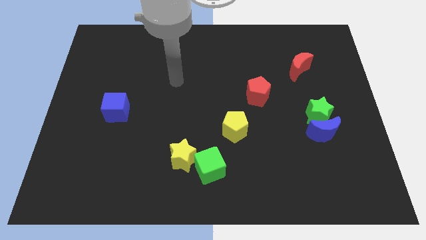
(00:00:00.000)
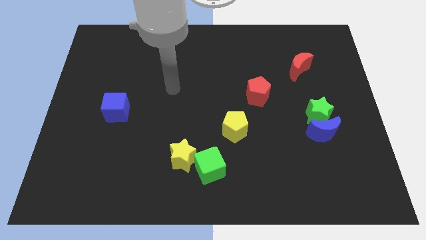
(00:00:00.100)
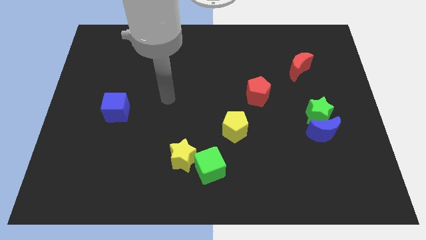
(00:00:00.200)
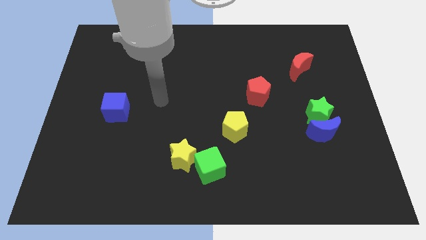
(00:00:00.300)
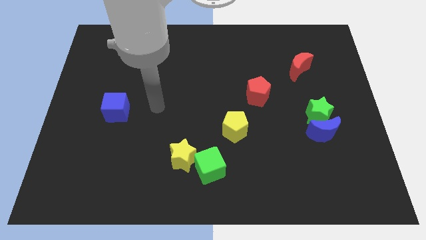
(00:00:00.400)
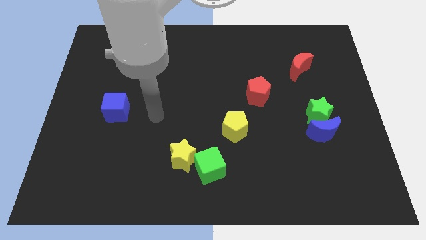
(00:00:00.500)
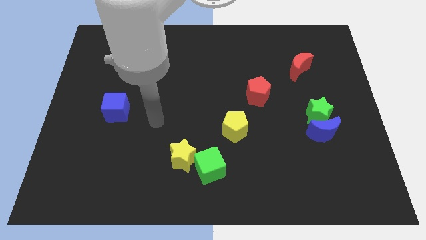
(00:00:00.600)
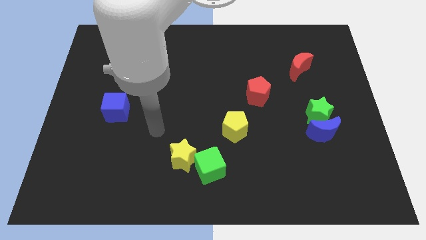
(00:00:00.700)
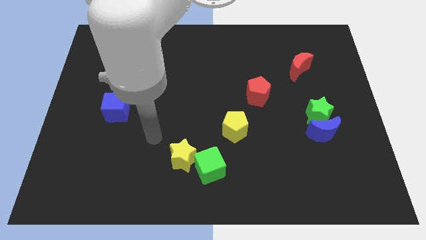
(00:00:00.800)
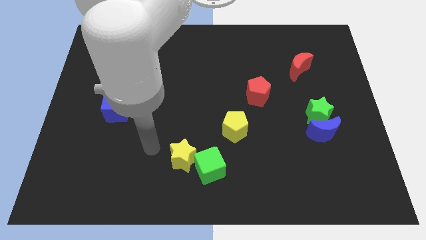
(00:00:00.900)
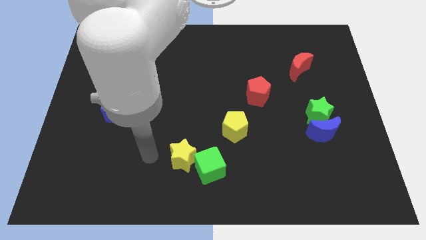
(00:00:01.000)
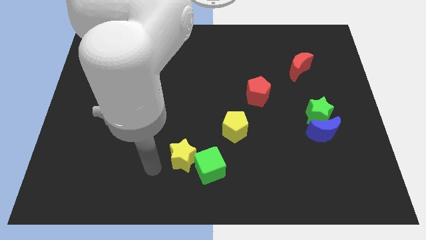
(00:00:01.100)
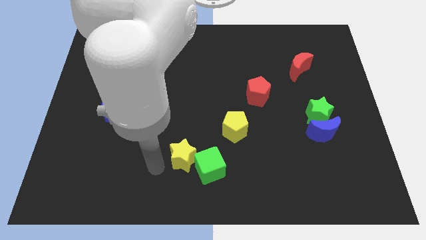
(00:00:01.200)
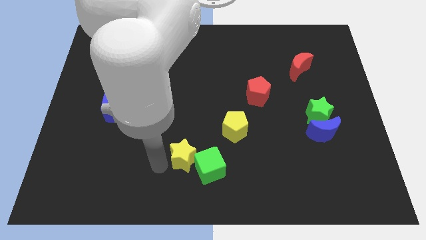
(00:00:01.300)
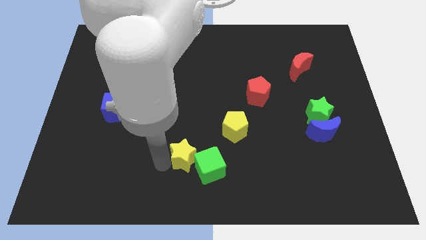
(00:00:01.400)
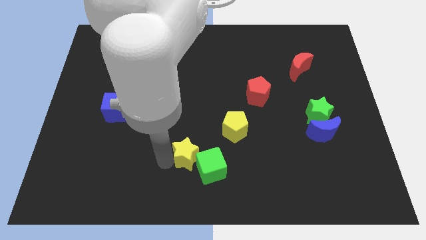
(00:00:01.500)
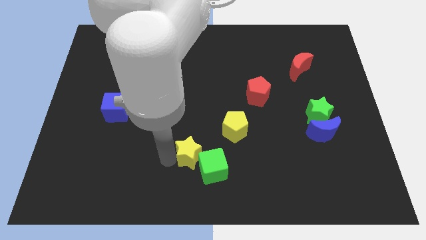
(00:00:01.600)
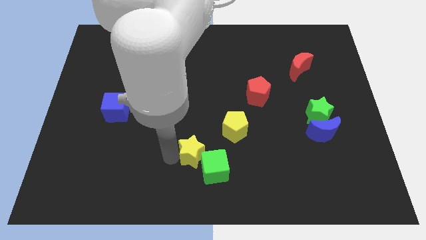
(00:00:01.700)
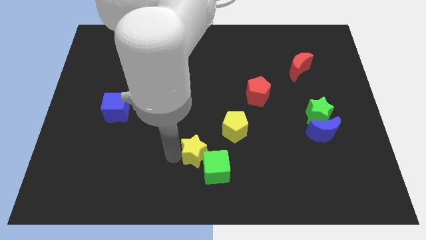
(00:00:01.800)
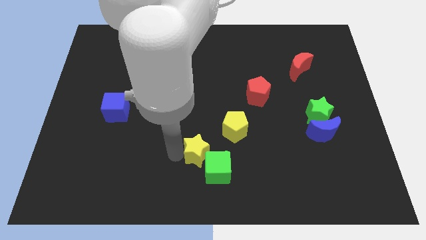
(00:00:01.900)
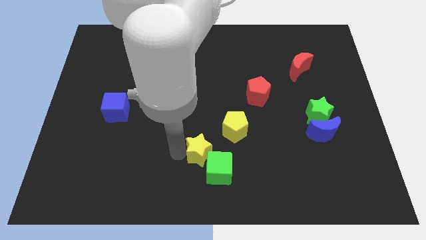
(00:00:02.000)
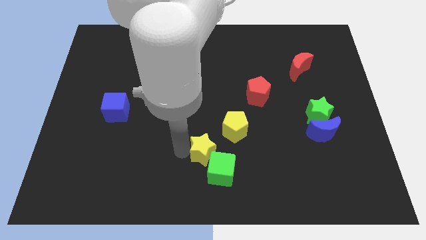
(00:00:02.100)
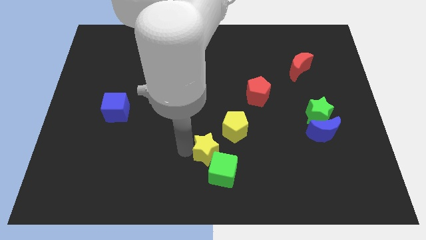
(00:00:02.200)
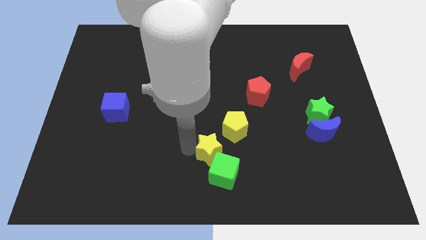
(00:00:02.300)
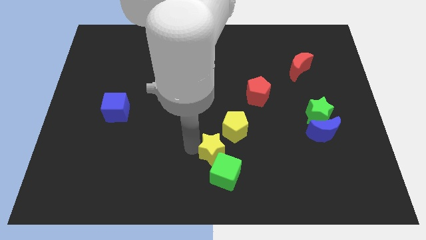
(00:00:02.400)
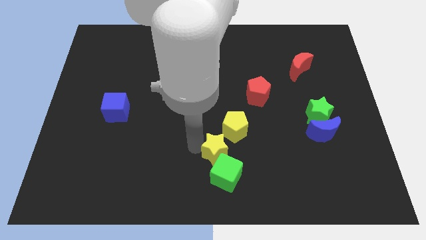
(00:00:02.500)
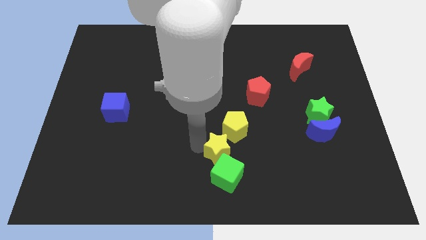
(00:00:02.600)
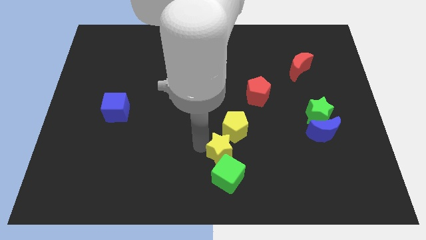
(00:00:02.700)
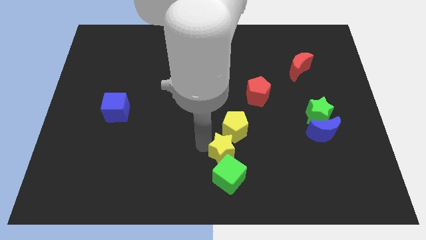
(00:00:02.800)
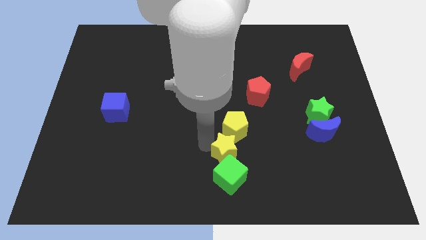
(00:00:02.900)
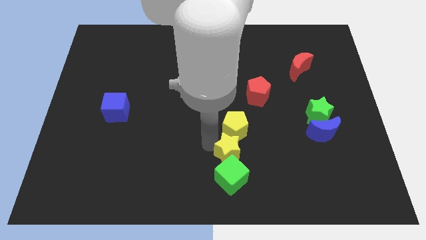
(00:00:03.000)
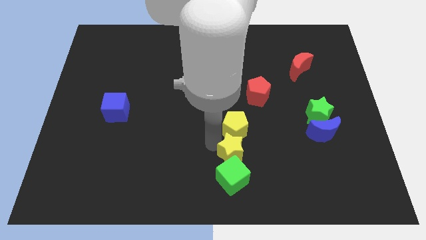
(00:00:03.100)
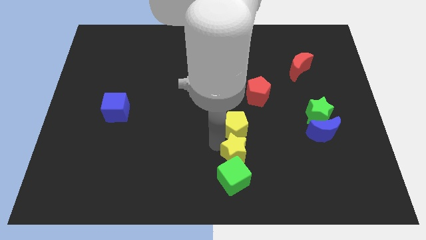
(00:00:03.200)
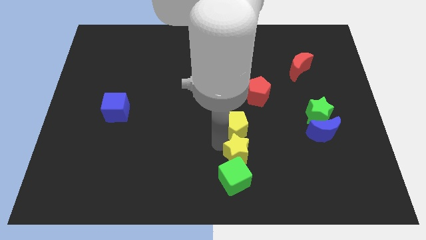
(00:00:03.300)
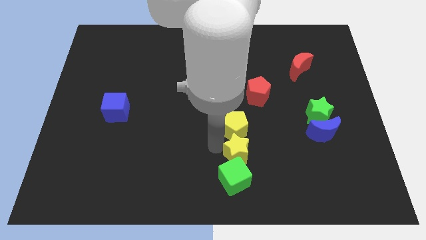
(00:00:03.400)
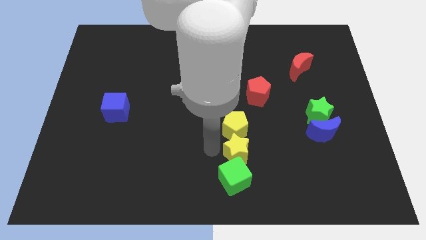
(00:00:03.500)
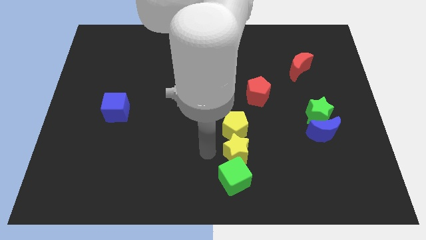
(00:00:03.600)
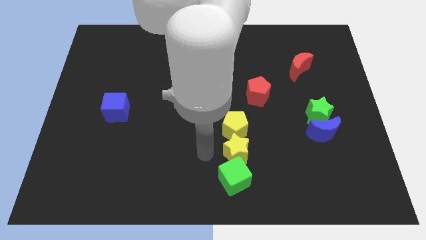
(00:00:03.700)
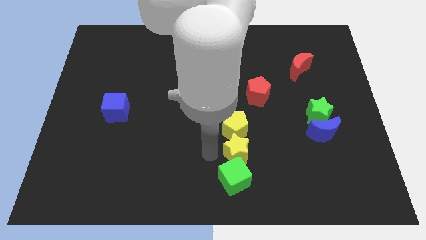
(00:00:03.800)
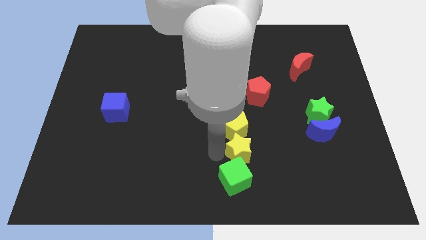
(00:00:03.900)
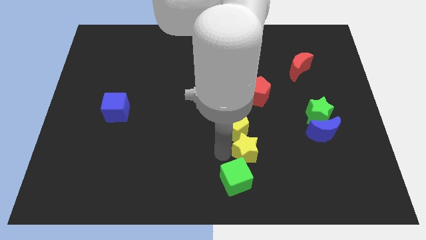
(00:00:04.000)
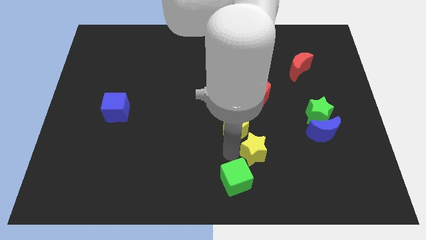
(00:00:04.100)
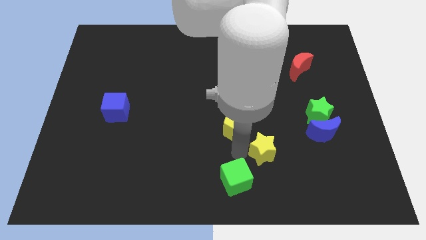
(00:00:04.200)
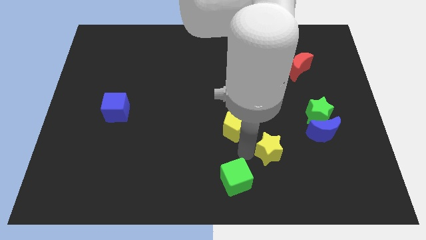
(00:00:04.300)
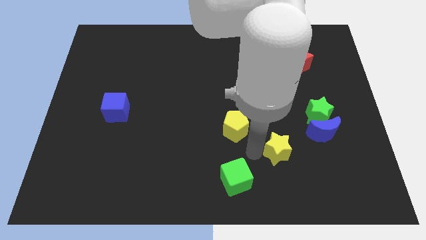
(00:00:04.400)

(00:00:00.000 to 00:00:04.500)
slide the yellow star right

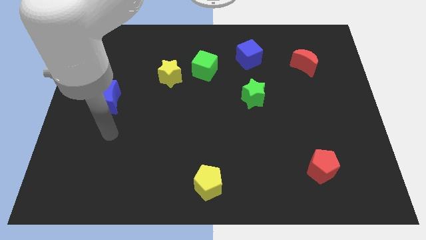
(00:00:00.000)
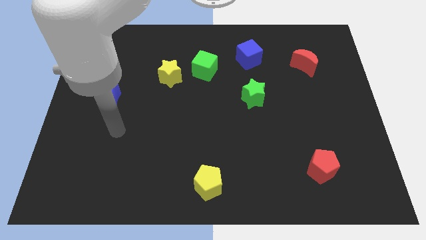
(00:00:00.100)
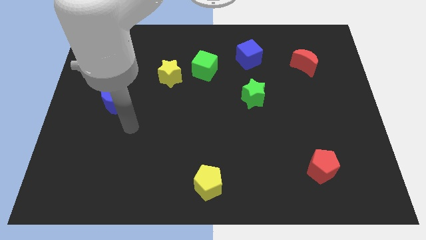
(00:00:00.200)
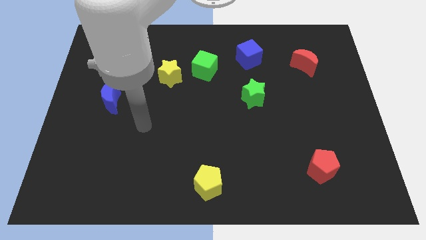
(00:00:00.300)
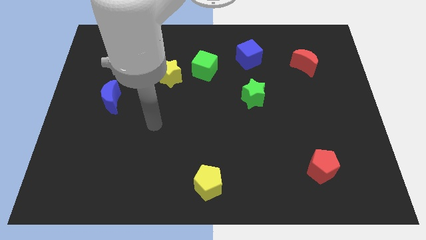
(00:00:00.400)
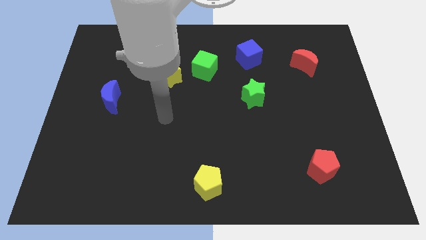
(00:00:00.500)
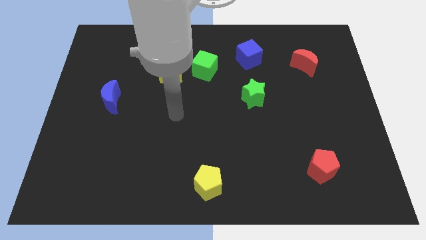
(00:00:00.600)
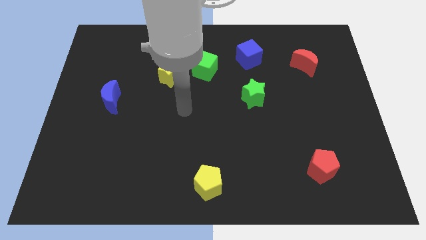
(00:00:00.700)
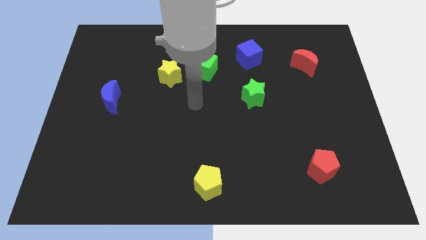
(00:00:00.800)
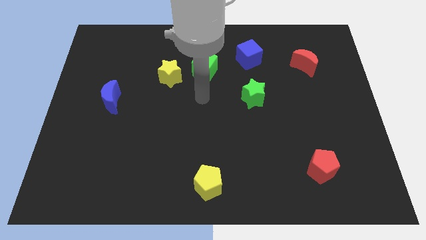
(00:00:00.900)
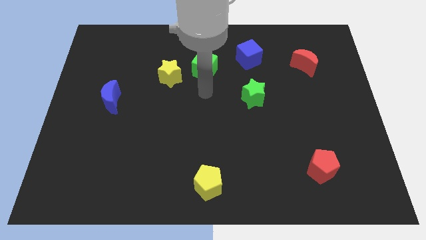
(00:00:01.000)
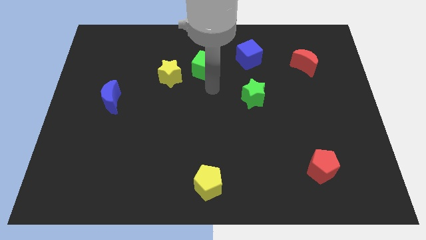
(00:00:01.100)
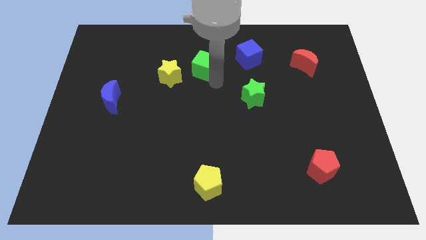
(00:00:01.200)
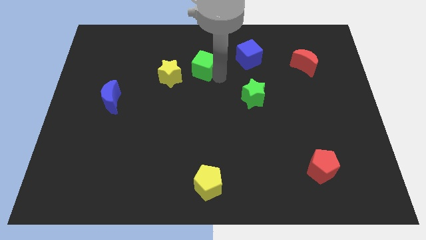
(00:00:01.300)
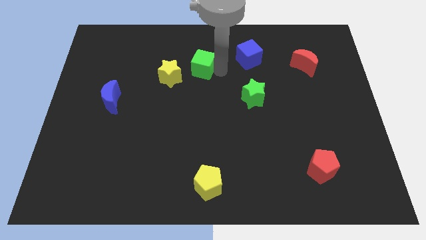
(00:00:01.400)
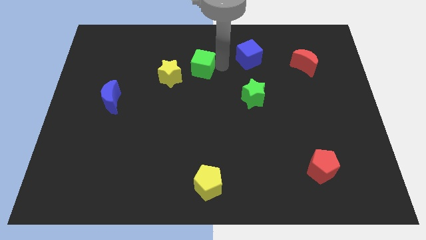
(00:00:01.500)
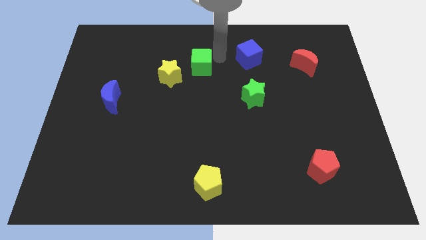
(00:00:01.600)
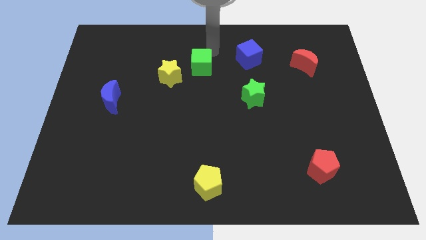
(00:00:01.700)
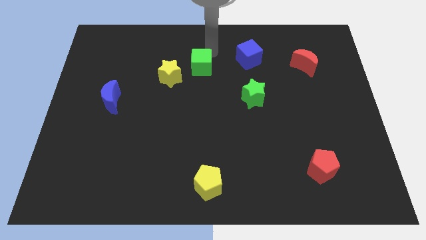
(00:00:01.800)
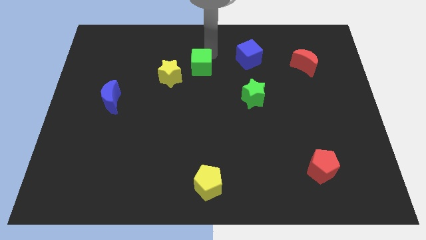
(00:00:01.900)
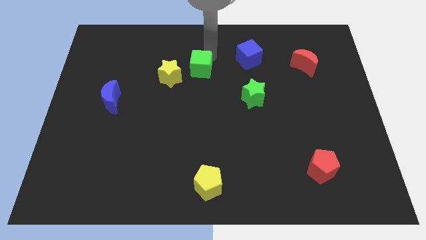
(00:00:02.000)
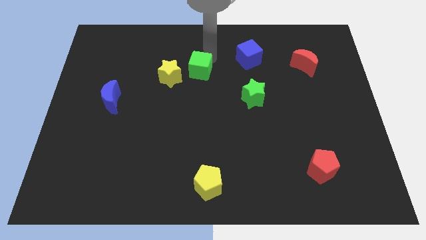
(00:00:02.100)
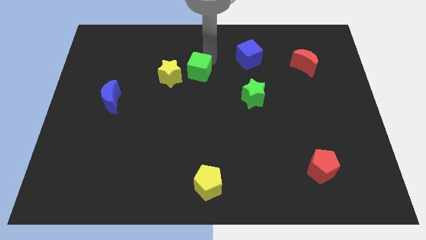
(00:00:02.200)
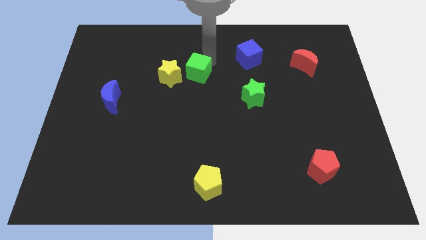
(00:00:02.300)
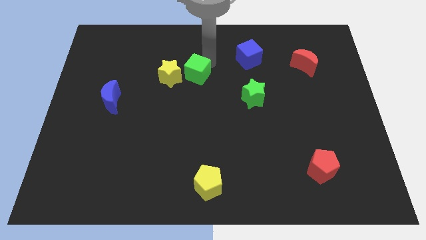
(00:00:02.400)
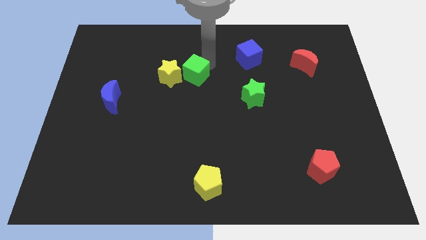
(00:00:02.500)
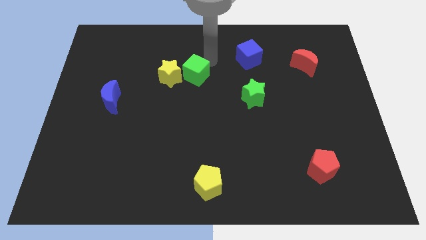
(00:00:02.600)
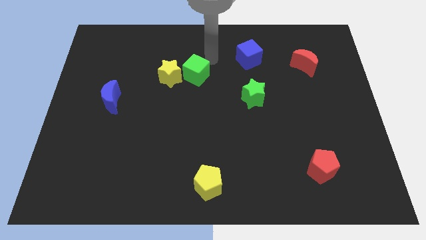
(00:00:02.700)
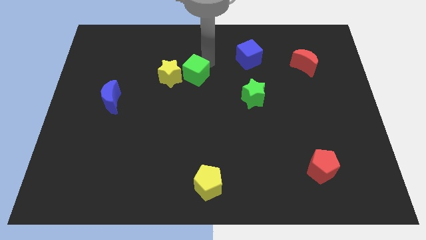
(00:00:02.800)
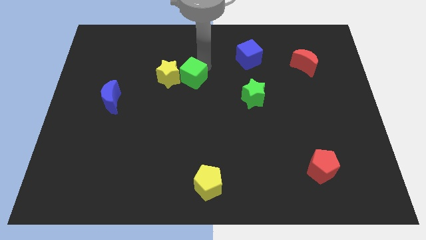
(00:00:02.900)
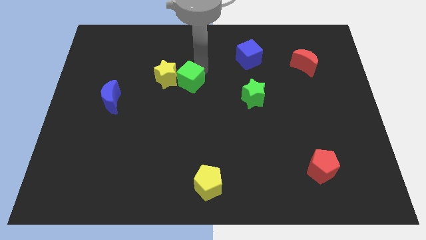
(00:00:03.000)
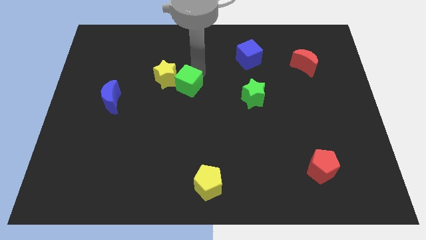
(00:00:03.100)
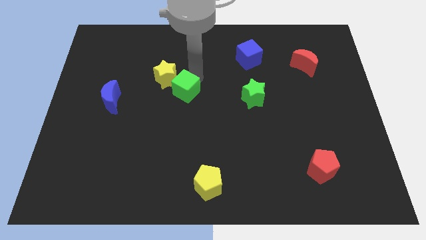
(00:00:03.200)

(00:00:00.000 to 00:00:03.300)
slightly slide the green cube down and left diagonally
